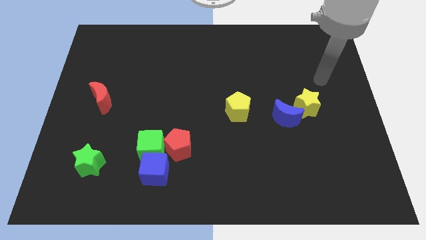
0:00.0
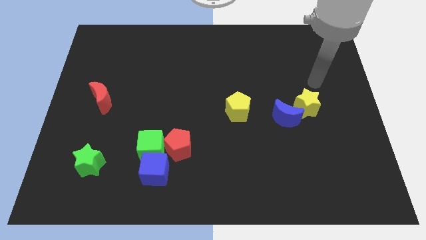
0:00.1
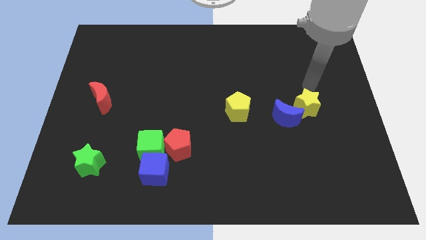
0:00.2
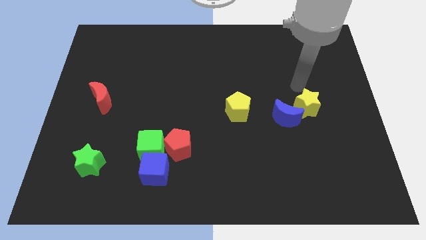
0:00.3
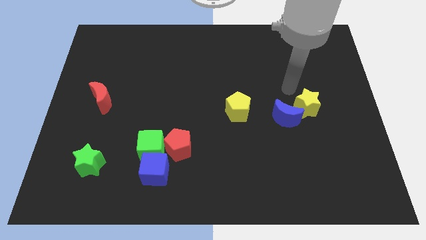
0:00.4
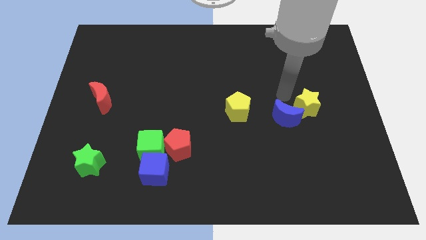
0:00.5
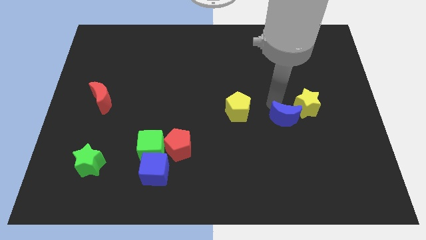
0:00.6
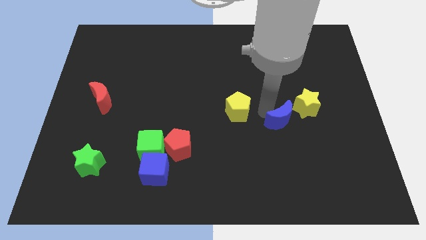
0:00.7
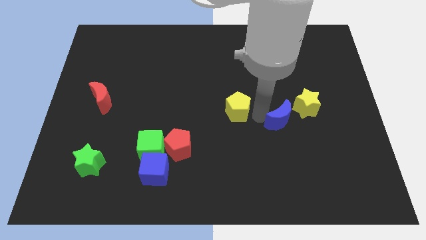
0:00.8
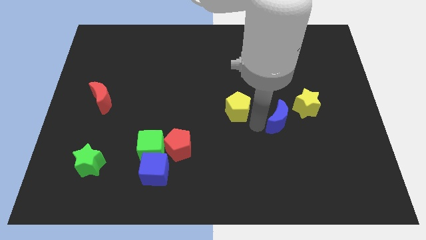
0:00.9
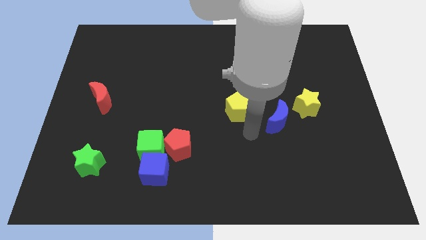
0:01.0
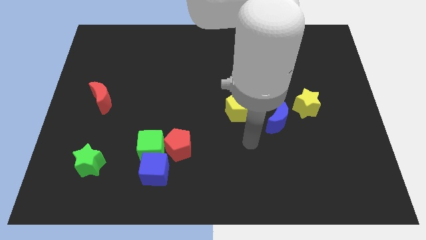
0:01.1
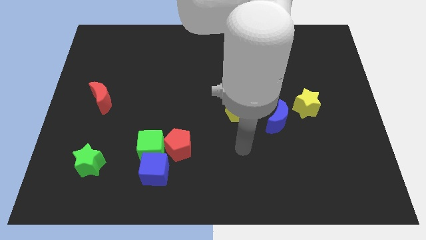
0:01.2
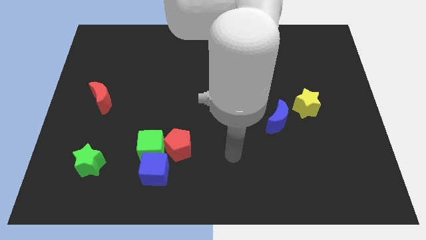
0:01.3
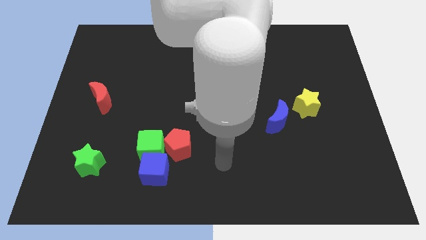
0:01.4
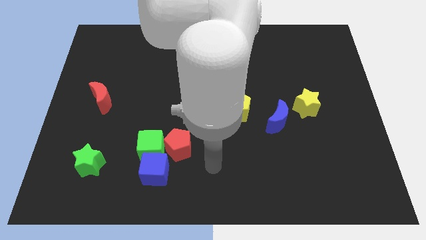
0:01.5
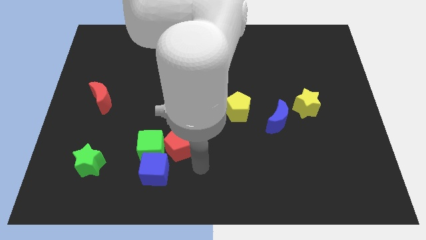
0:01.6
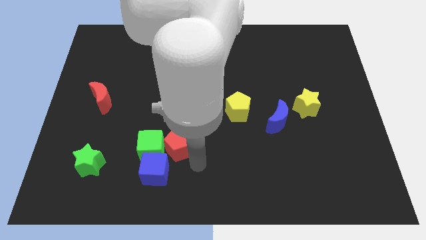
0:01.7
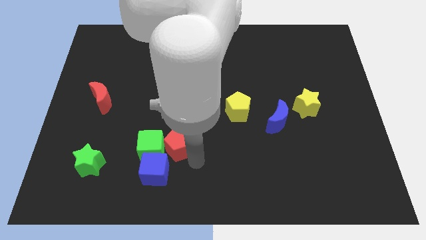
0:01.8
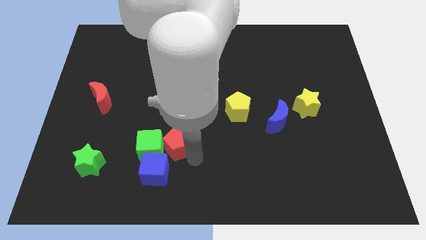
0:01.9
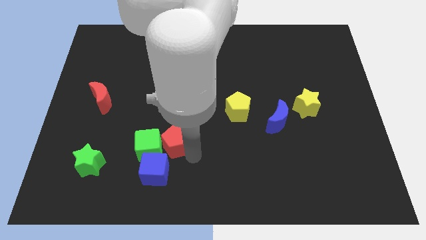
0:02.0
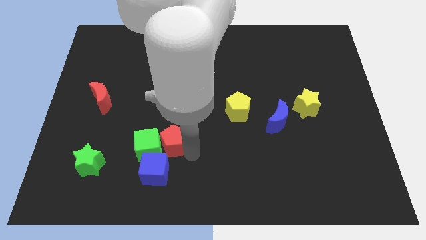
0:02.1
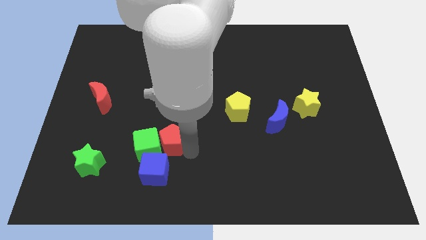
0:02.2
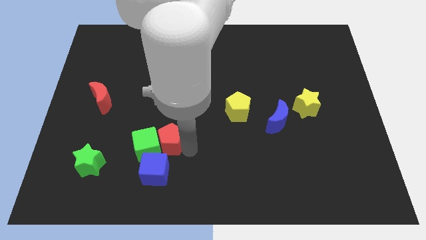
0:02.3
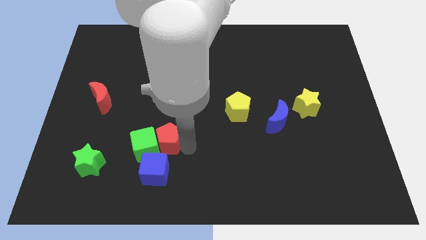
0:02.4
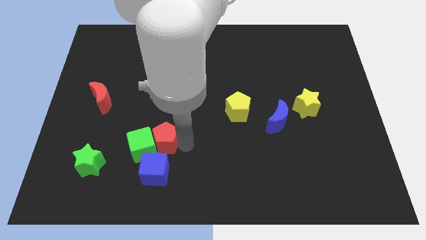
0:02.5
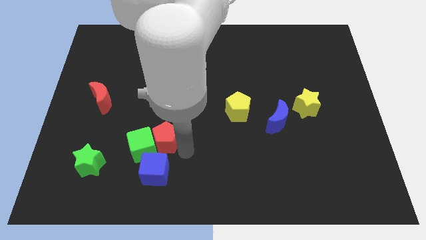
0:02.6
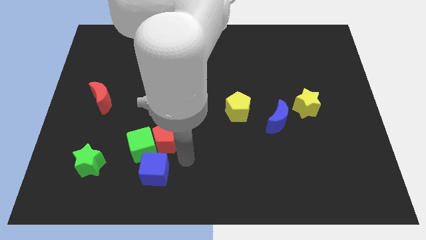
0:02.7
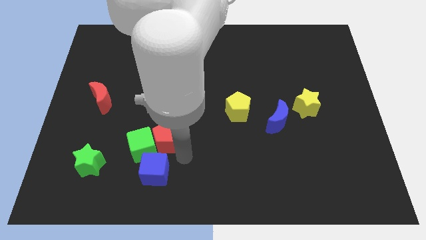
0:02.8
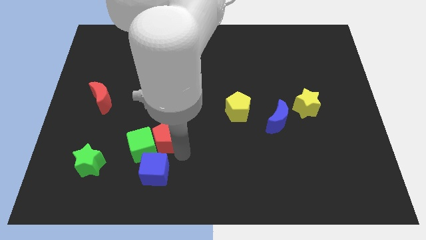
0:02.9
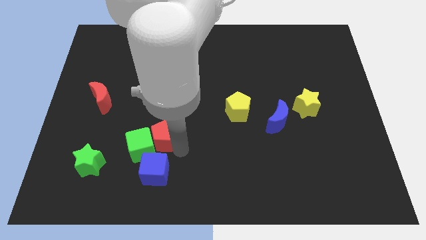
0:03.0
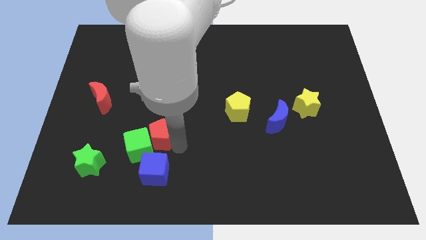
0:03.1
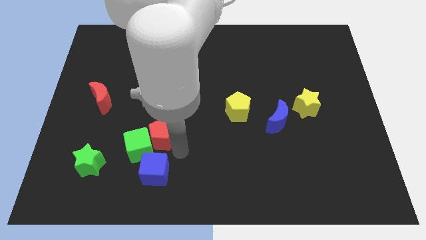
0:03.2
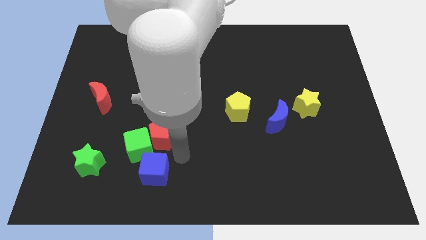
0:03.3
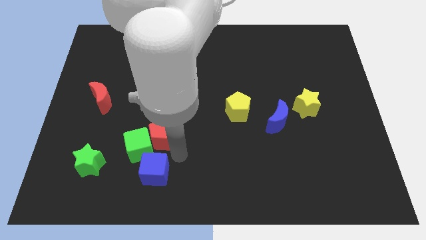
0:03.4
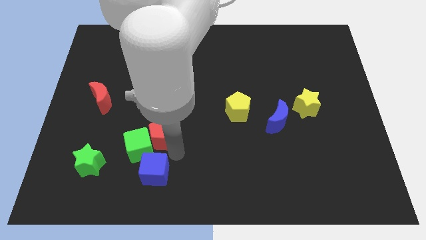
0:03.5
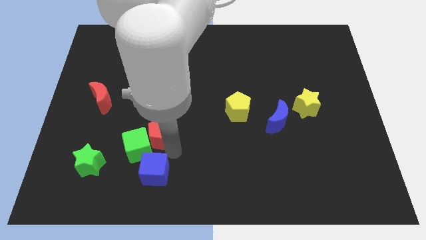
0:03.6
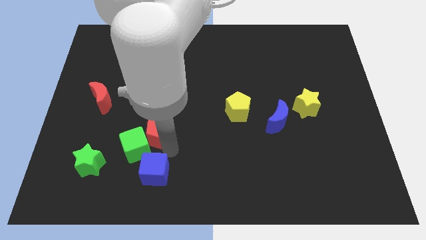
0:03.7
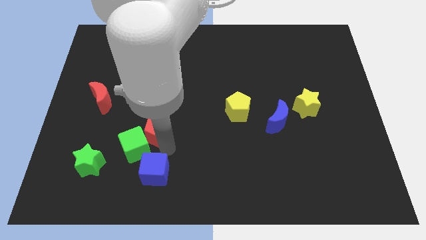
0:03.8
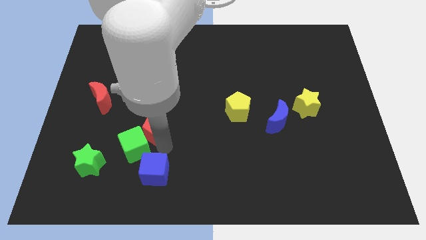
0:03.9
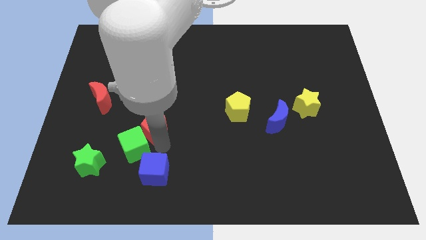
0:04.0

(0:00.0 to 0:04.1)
slightly move the red pentagon up and to the left

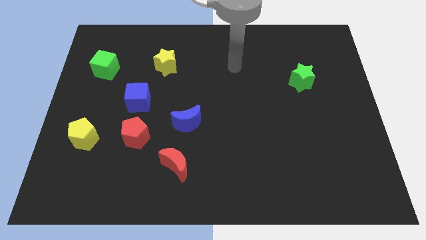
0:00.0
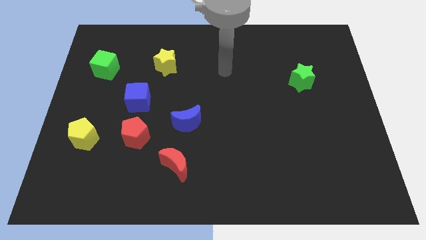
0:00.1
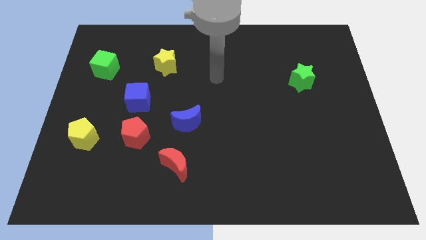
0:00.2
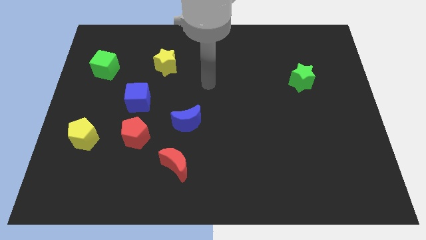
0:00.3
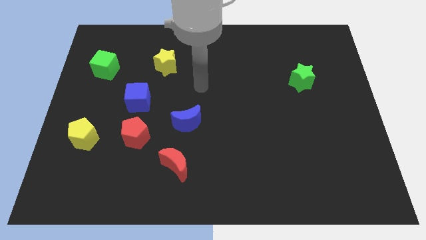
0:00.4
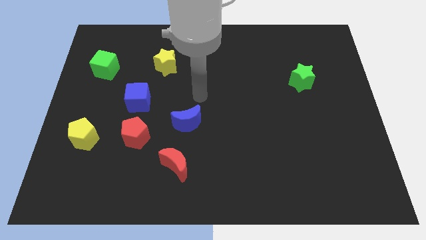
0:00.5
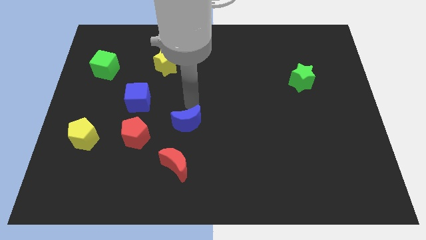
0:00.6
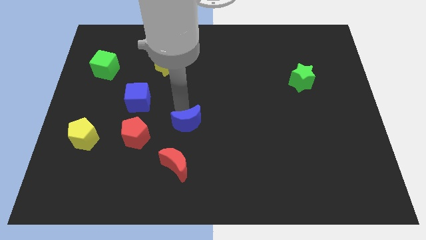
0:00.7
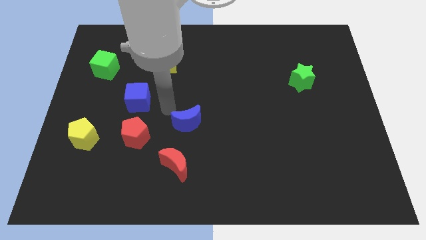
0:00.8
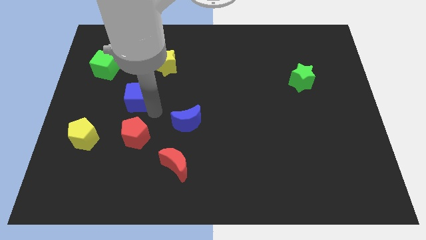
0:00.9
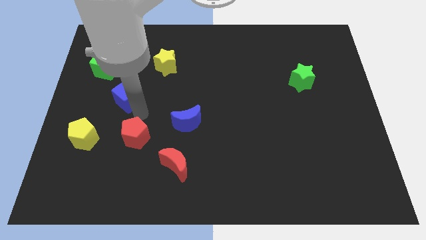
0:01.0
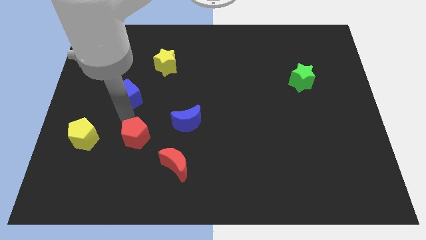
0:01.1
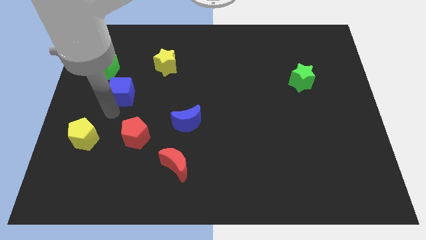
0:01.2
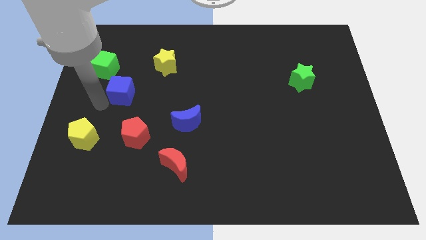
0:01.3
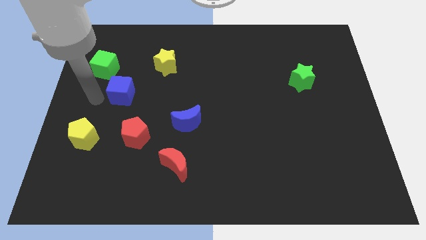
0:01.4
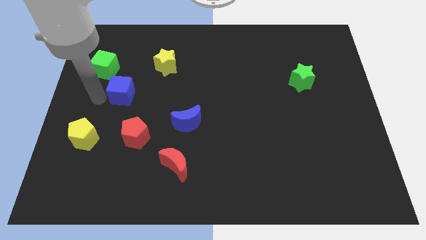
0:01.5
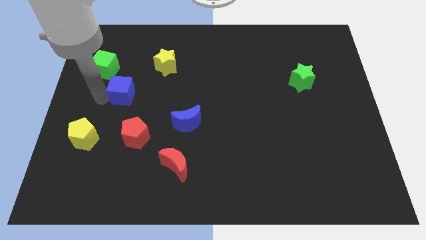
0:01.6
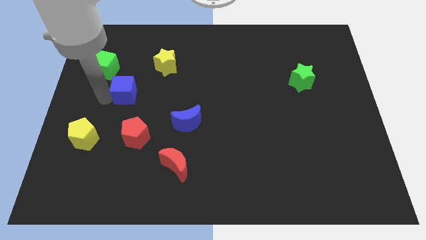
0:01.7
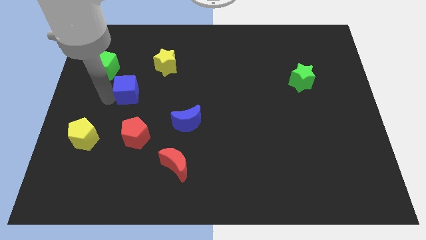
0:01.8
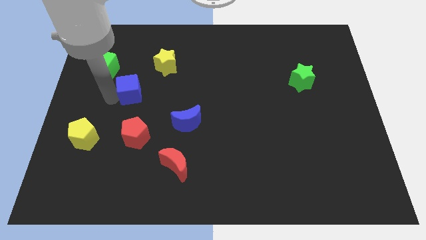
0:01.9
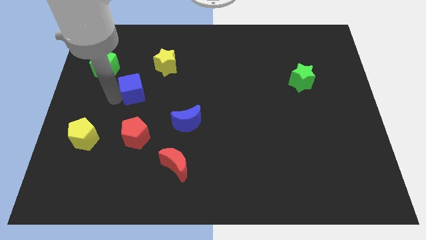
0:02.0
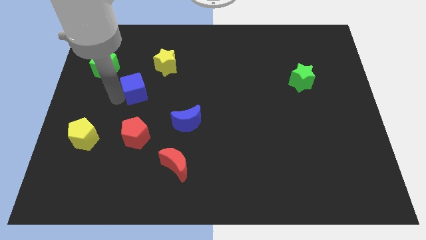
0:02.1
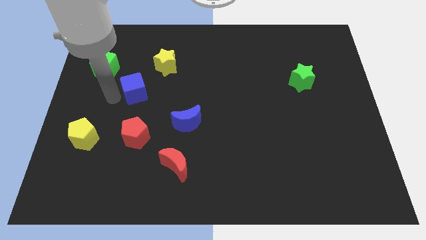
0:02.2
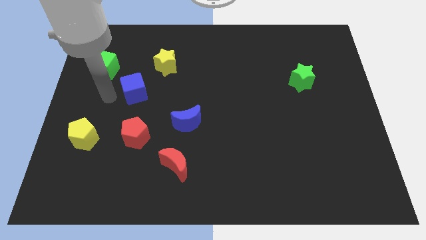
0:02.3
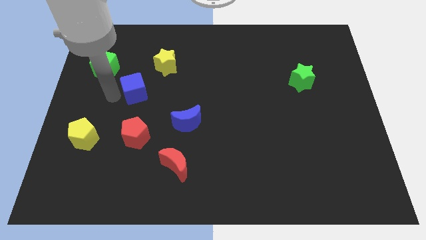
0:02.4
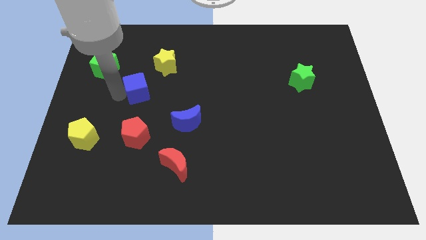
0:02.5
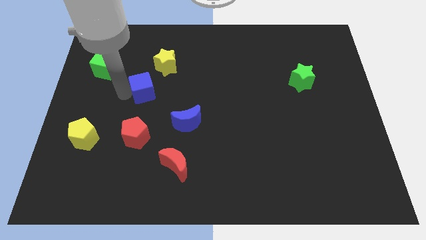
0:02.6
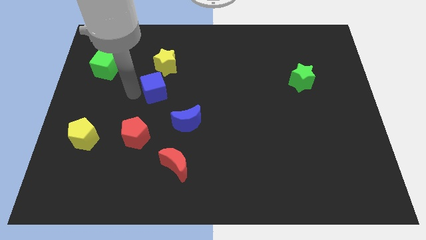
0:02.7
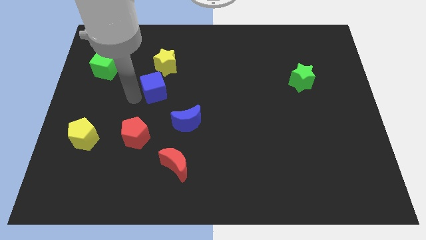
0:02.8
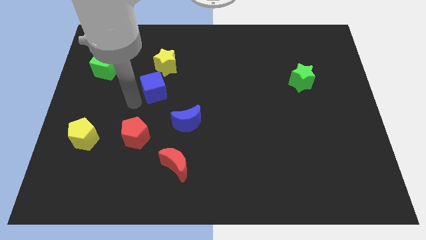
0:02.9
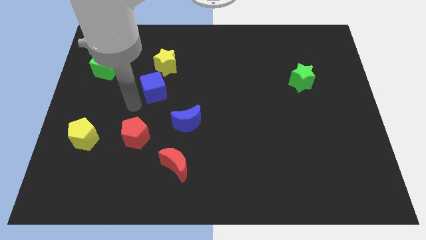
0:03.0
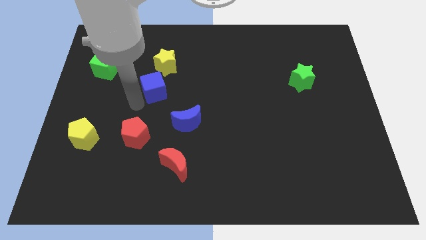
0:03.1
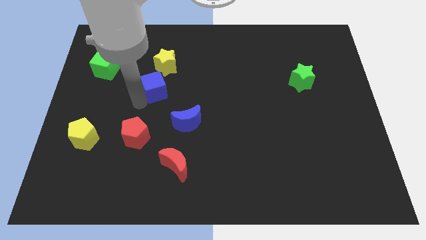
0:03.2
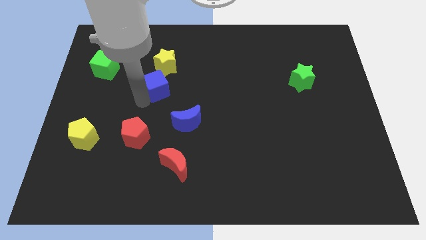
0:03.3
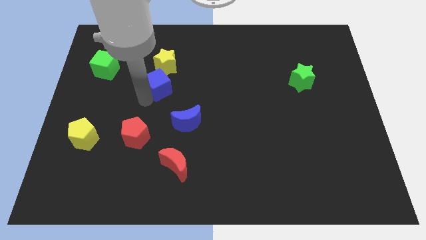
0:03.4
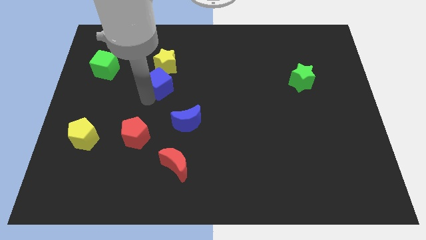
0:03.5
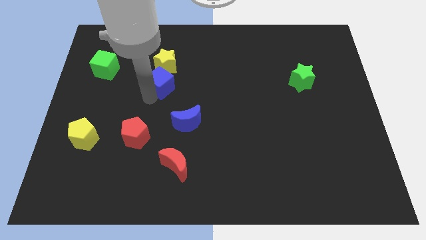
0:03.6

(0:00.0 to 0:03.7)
slightly move the blue cube diagonally up and right
